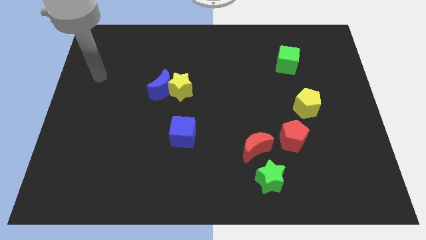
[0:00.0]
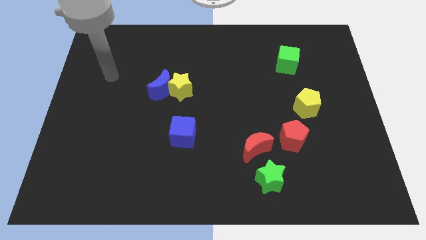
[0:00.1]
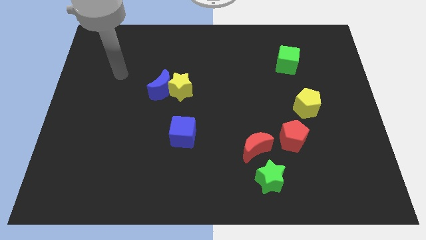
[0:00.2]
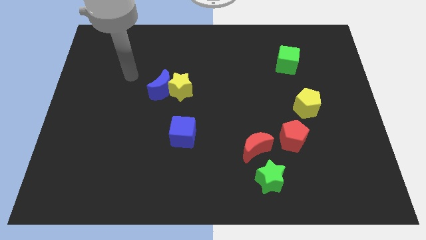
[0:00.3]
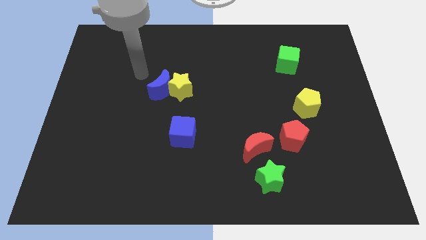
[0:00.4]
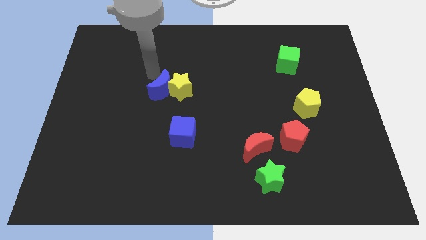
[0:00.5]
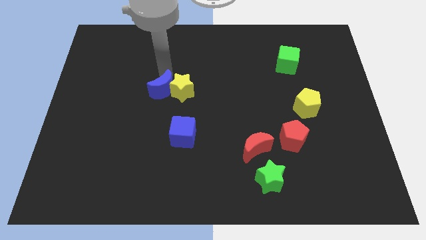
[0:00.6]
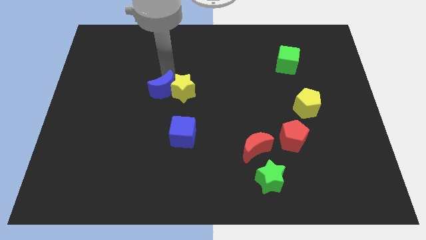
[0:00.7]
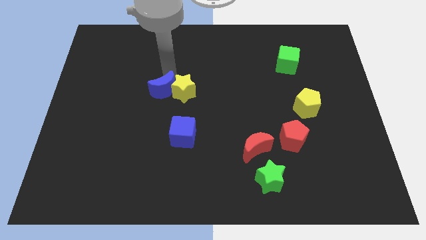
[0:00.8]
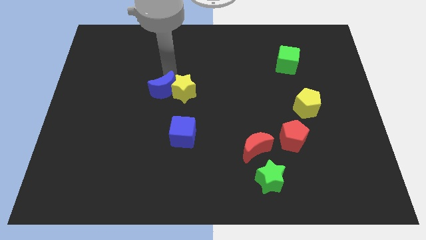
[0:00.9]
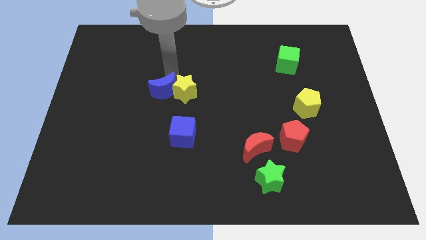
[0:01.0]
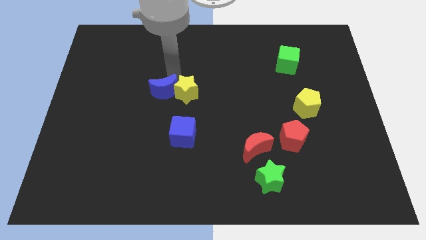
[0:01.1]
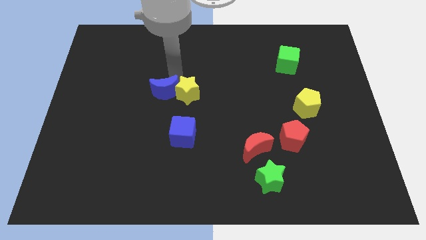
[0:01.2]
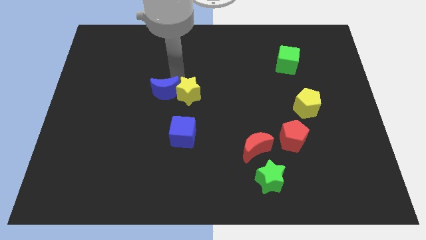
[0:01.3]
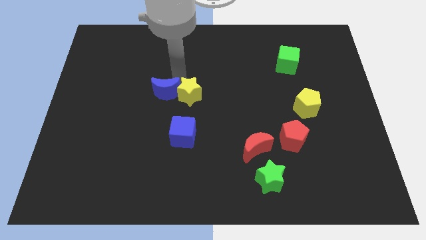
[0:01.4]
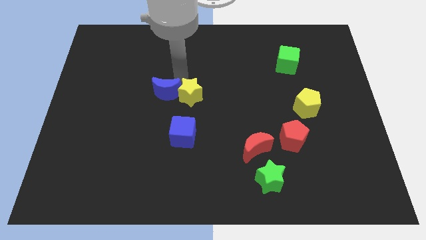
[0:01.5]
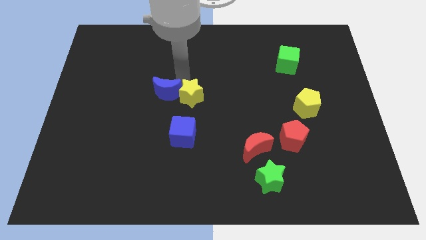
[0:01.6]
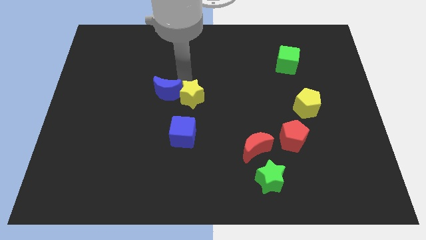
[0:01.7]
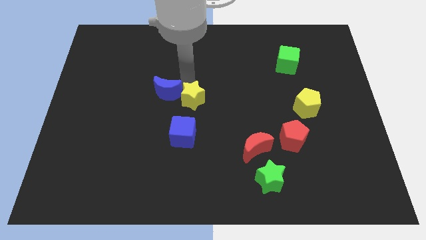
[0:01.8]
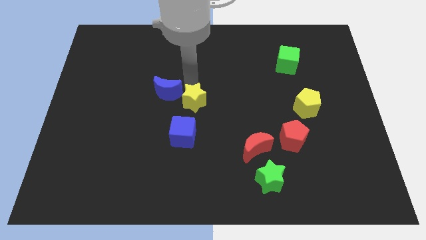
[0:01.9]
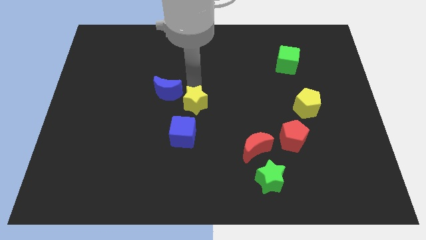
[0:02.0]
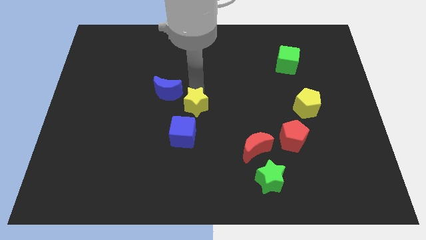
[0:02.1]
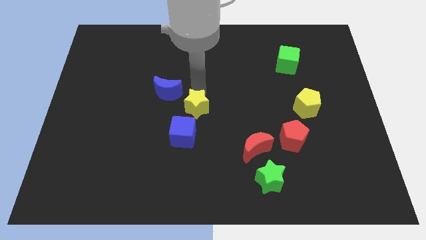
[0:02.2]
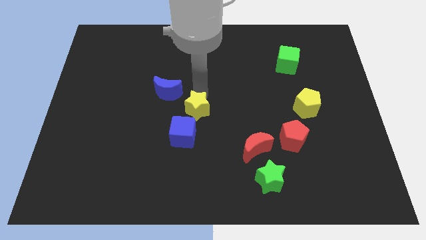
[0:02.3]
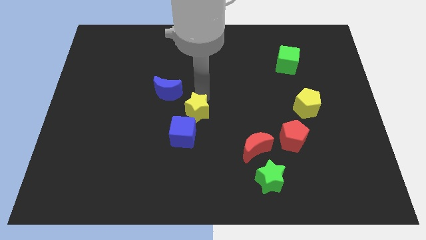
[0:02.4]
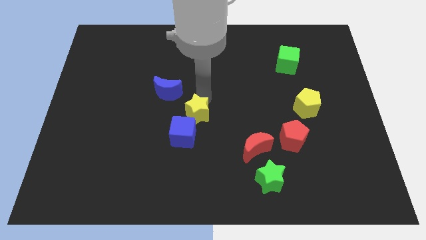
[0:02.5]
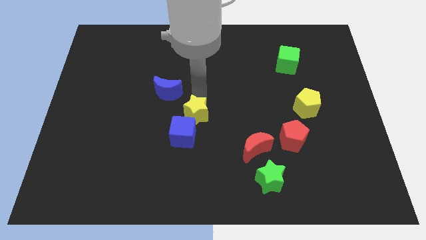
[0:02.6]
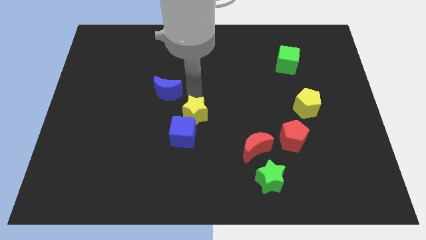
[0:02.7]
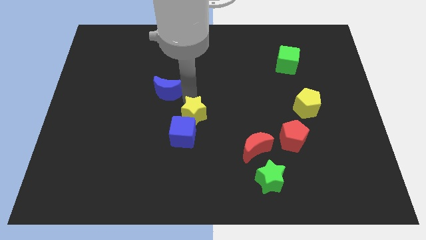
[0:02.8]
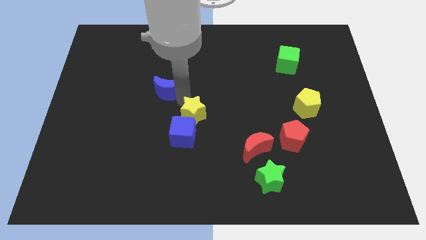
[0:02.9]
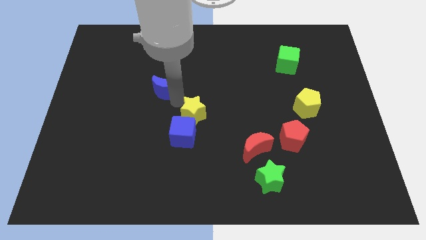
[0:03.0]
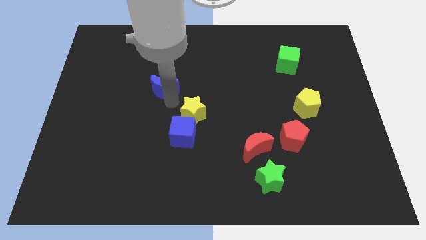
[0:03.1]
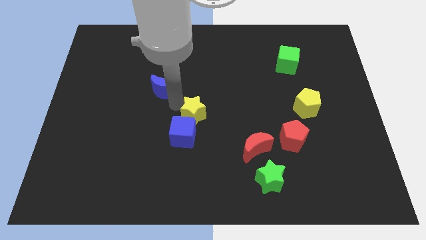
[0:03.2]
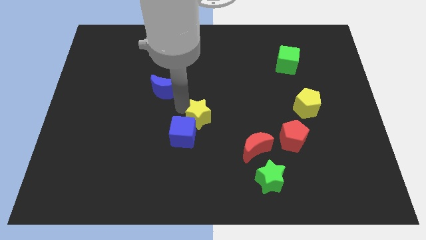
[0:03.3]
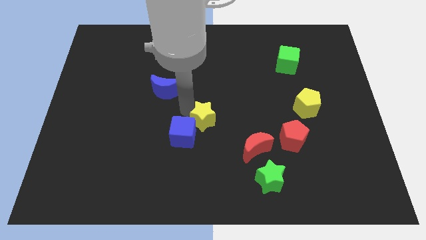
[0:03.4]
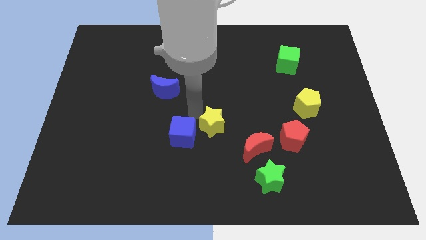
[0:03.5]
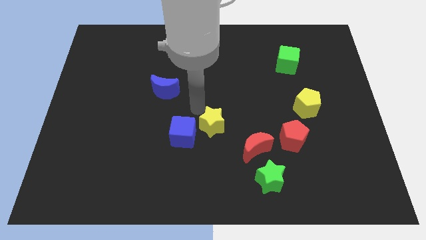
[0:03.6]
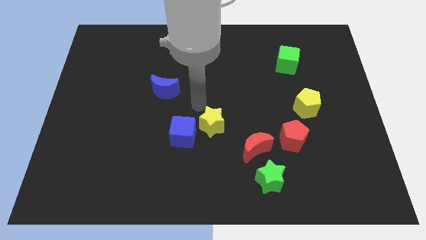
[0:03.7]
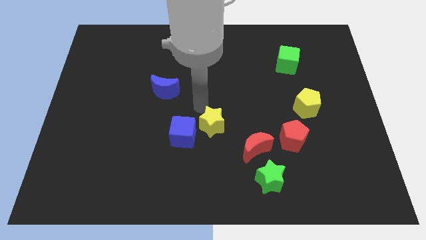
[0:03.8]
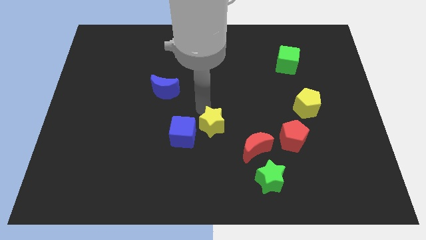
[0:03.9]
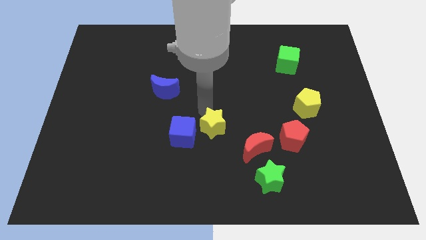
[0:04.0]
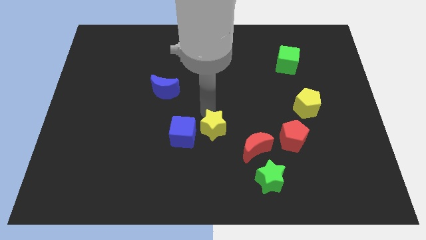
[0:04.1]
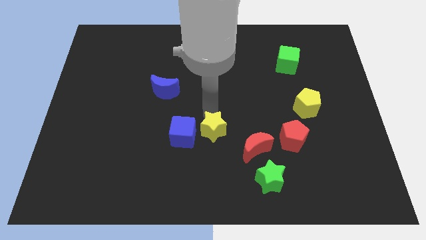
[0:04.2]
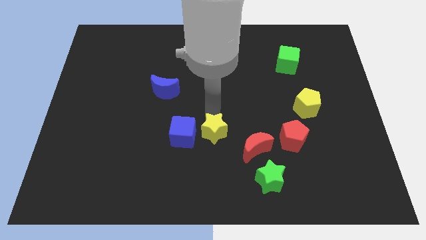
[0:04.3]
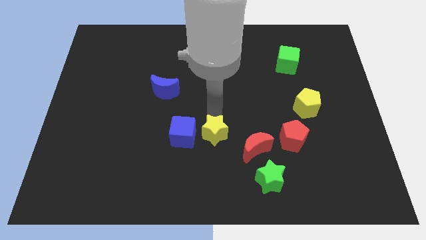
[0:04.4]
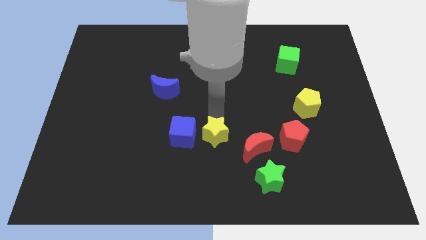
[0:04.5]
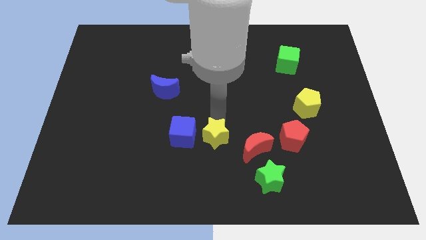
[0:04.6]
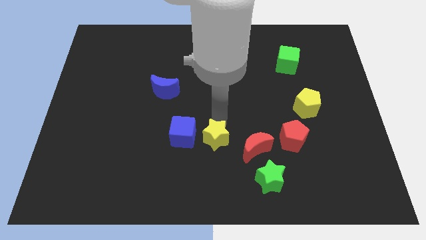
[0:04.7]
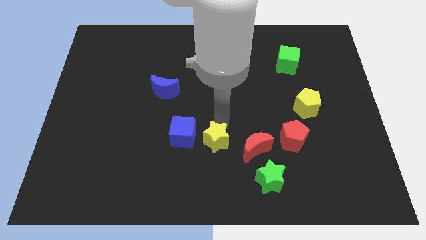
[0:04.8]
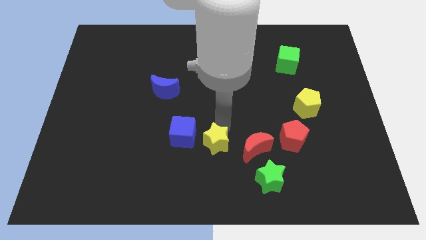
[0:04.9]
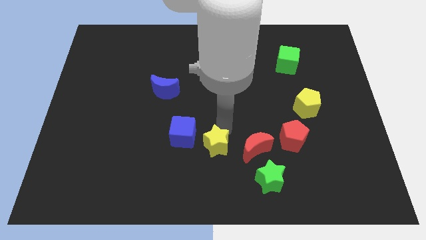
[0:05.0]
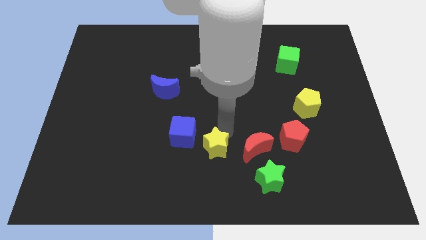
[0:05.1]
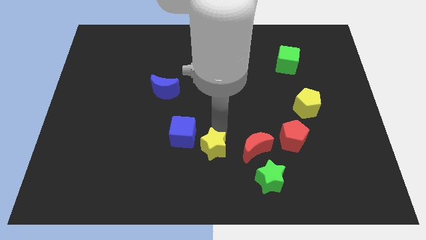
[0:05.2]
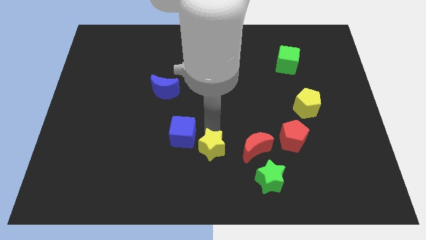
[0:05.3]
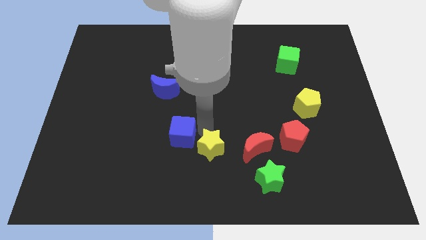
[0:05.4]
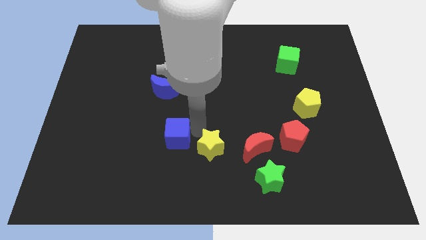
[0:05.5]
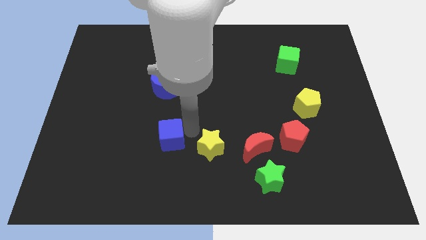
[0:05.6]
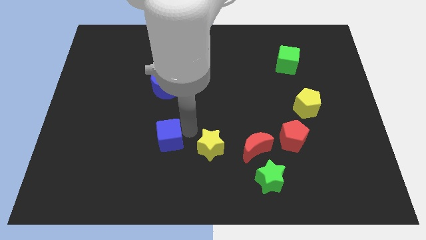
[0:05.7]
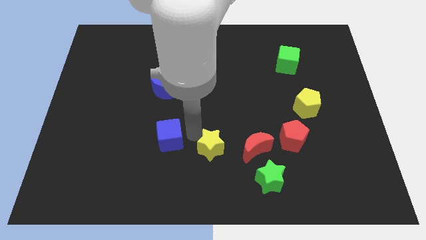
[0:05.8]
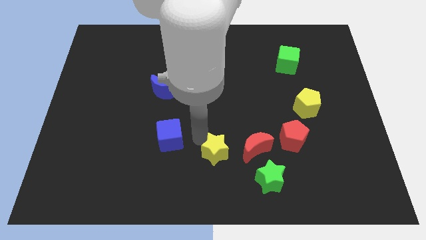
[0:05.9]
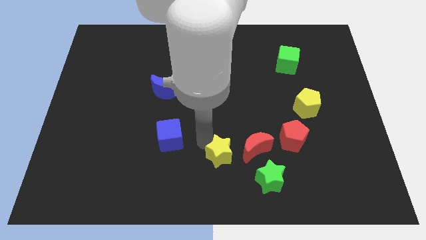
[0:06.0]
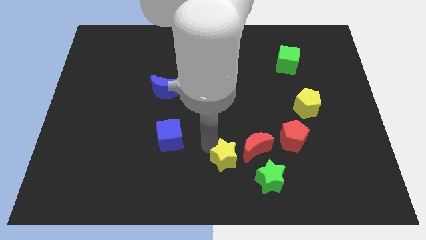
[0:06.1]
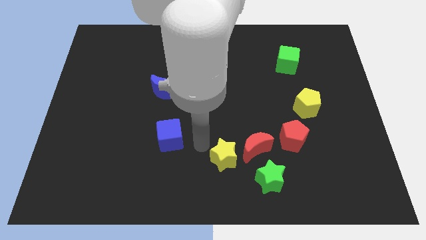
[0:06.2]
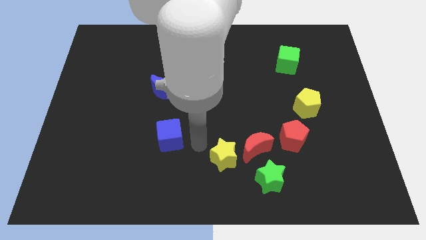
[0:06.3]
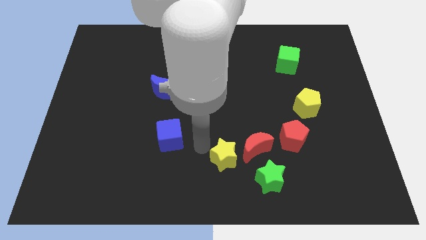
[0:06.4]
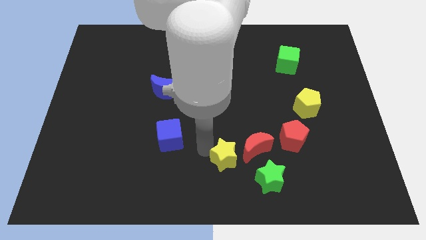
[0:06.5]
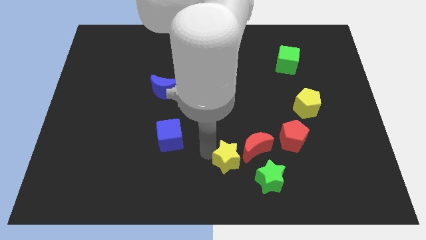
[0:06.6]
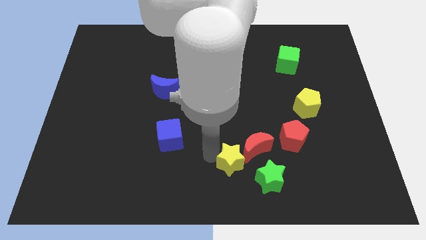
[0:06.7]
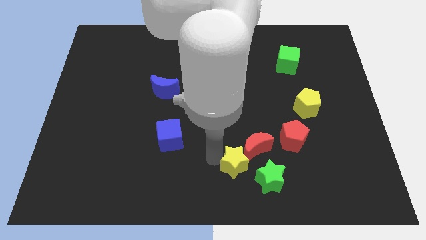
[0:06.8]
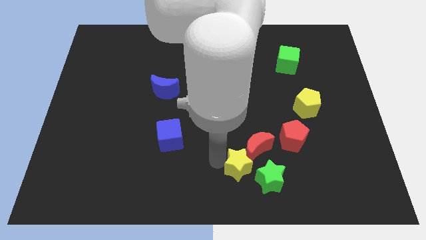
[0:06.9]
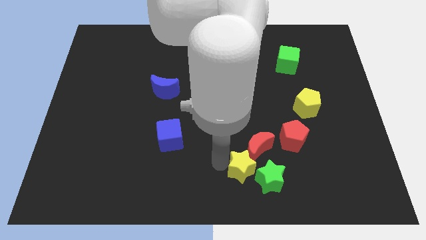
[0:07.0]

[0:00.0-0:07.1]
put the yellow star towards the green star
